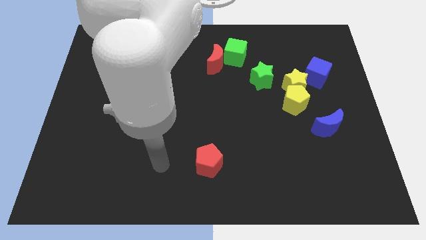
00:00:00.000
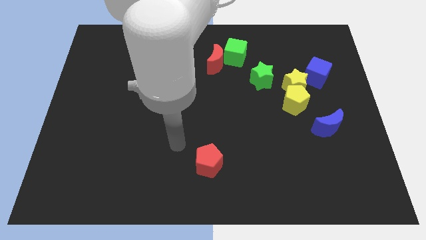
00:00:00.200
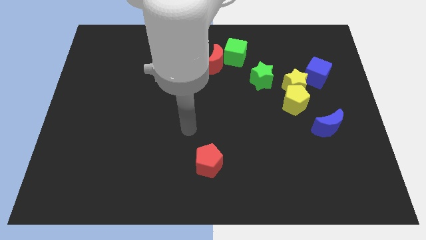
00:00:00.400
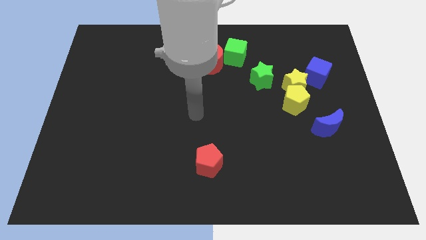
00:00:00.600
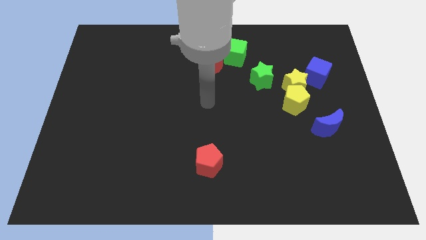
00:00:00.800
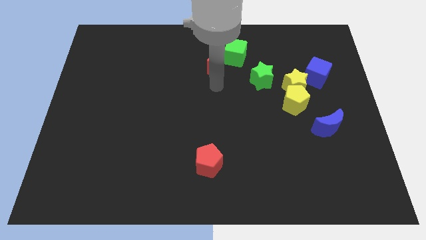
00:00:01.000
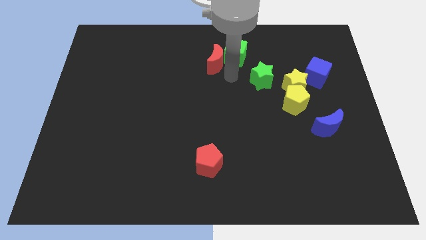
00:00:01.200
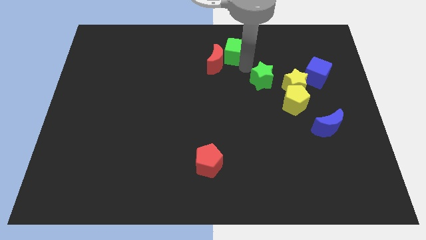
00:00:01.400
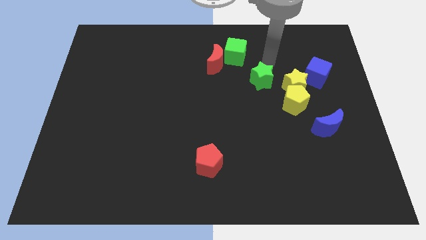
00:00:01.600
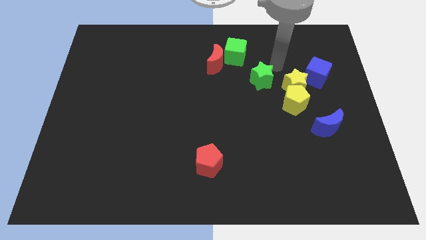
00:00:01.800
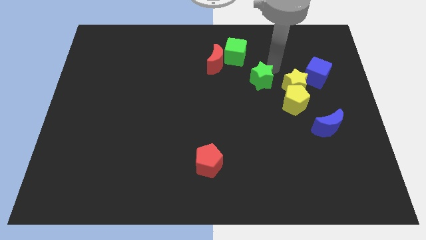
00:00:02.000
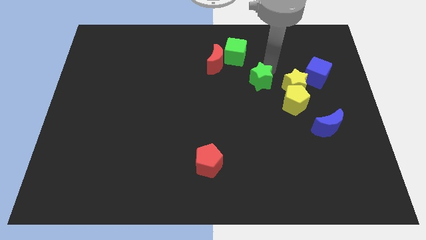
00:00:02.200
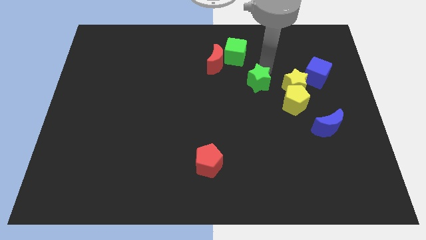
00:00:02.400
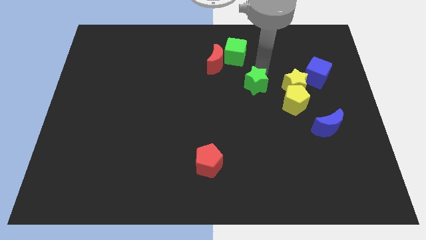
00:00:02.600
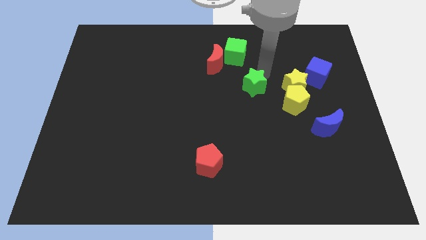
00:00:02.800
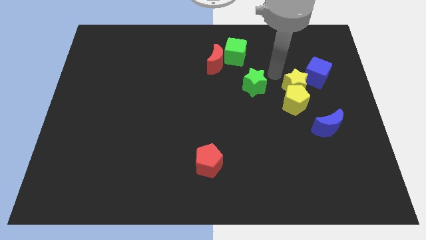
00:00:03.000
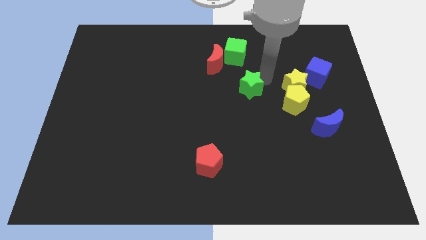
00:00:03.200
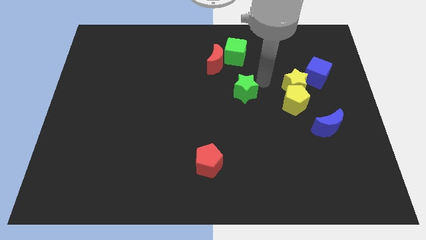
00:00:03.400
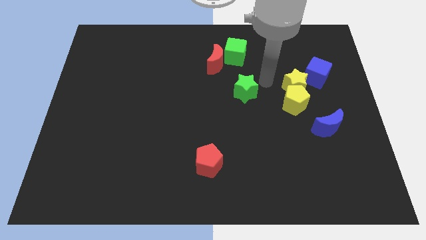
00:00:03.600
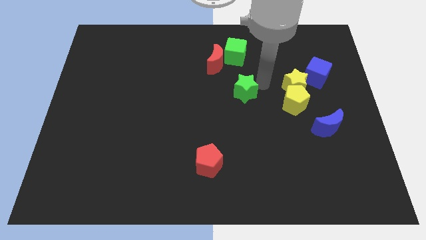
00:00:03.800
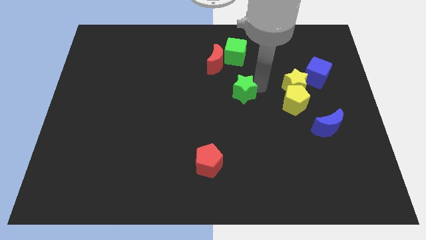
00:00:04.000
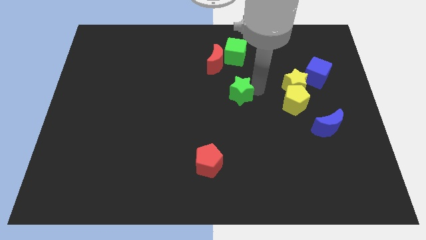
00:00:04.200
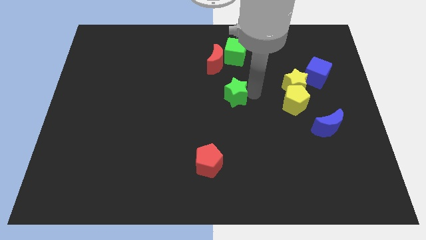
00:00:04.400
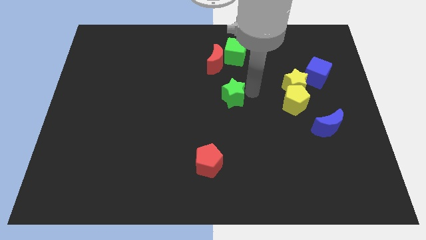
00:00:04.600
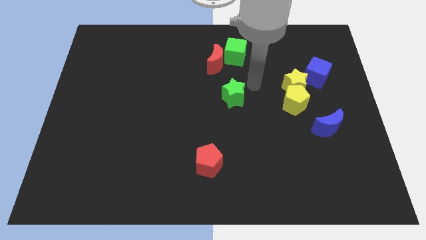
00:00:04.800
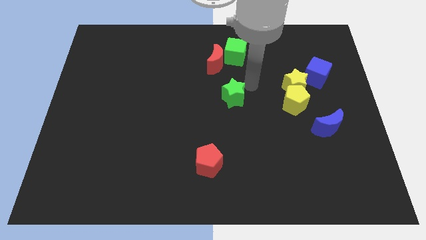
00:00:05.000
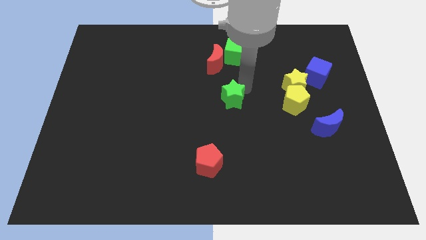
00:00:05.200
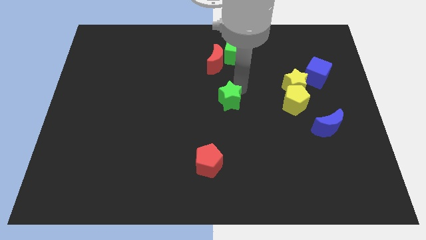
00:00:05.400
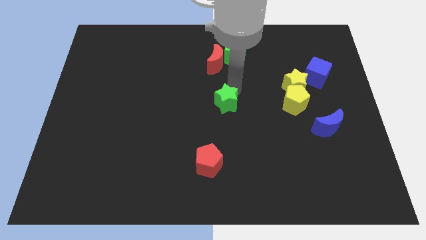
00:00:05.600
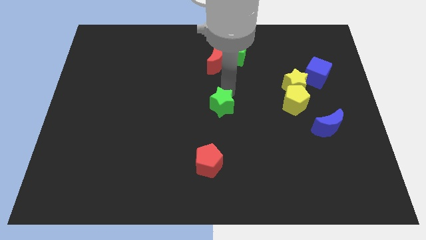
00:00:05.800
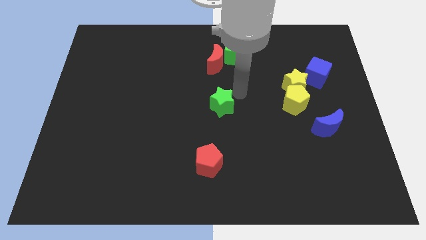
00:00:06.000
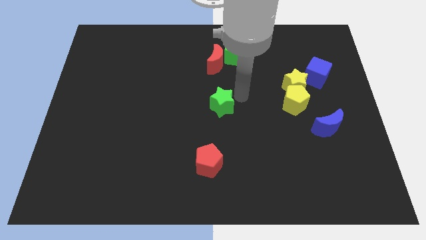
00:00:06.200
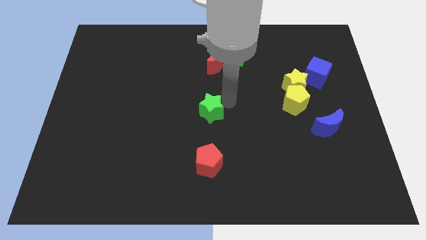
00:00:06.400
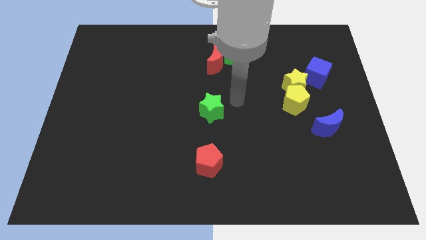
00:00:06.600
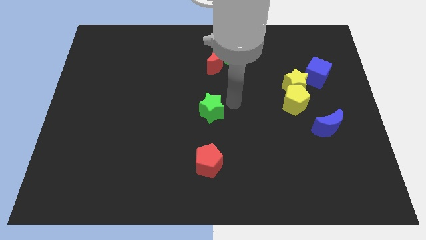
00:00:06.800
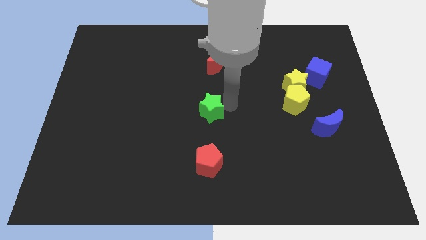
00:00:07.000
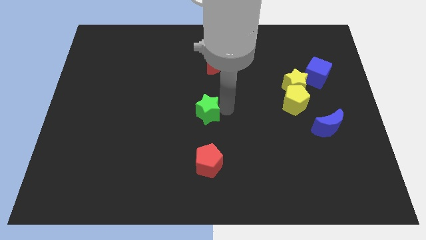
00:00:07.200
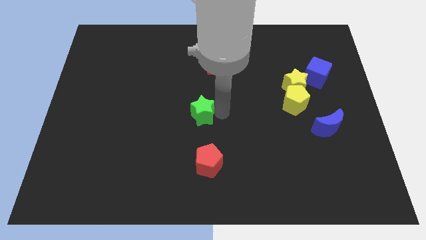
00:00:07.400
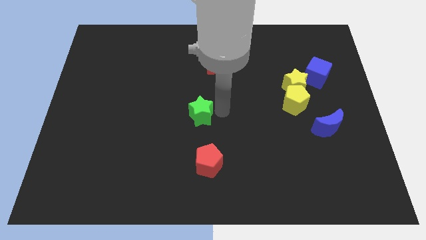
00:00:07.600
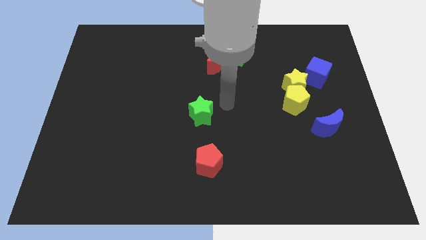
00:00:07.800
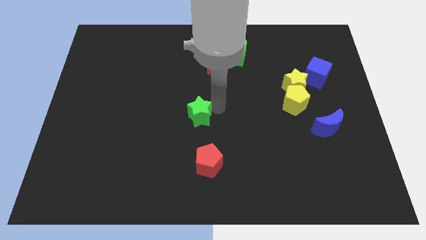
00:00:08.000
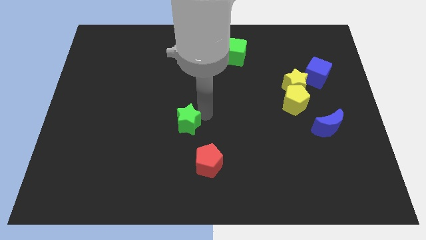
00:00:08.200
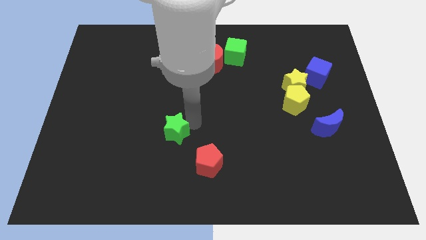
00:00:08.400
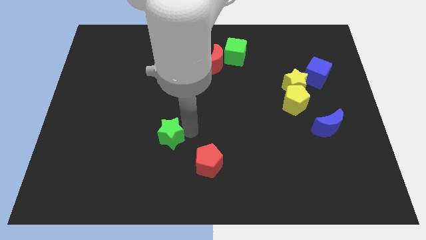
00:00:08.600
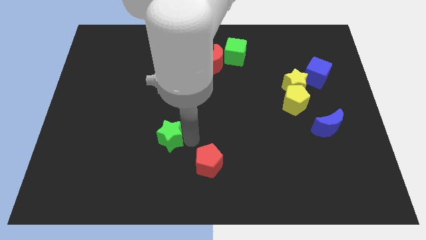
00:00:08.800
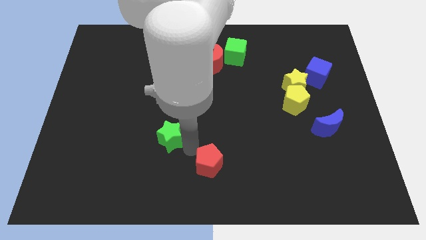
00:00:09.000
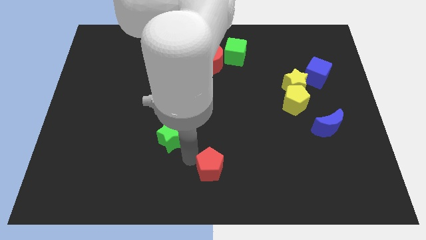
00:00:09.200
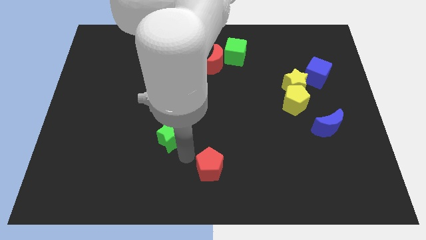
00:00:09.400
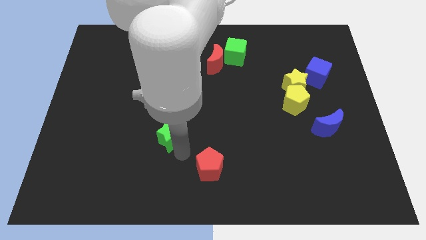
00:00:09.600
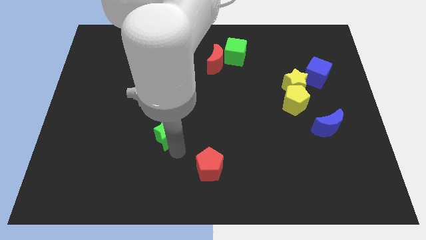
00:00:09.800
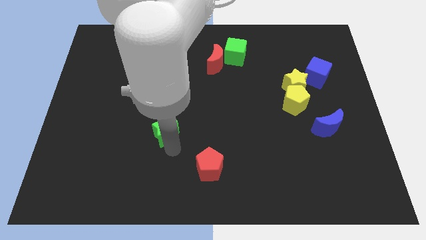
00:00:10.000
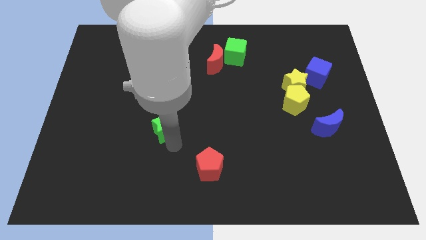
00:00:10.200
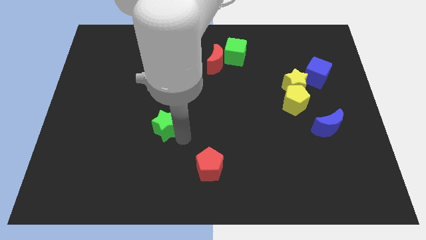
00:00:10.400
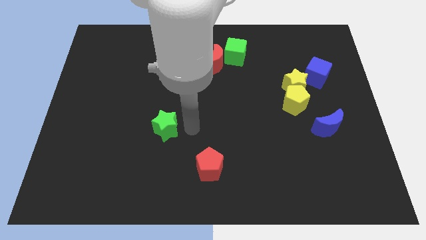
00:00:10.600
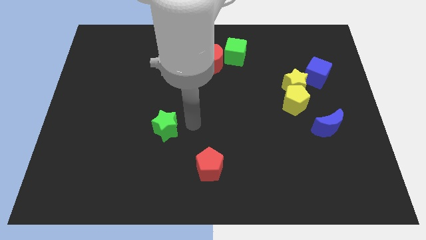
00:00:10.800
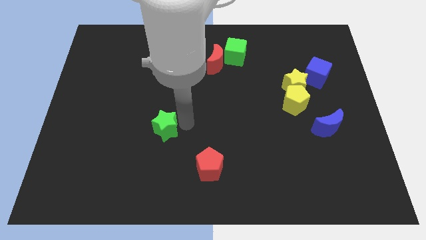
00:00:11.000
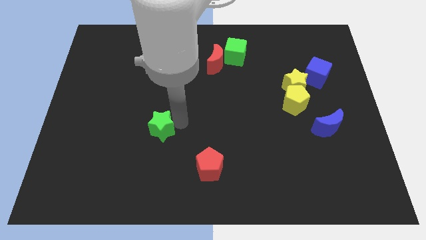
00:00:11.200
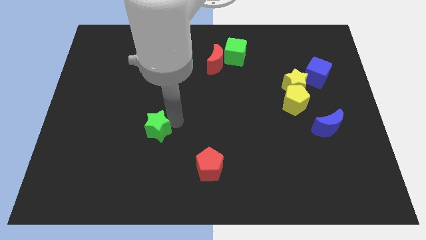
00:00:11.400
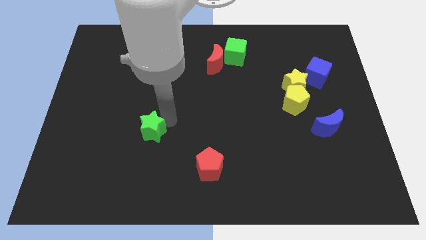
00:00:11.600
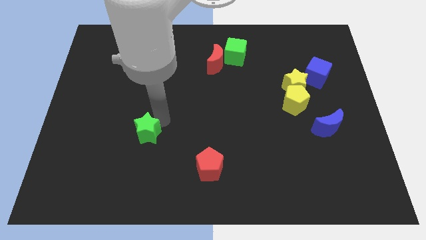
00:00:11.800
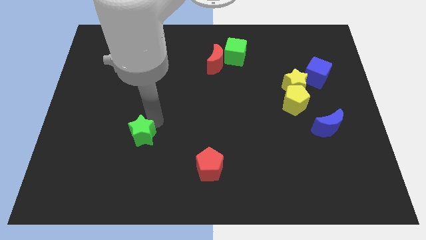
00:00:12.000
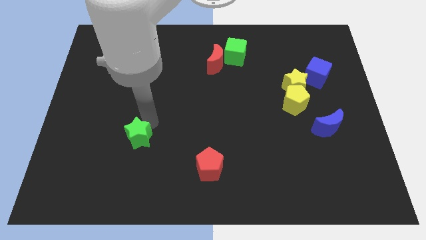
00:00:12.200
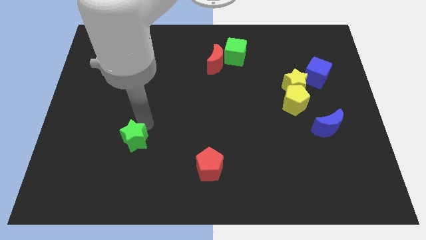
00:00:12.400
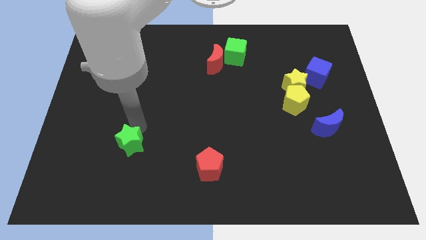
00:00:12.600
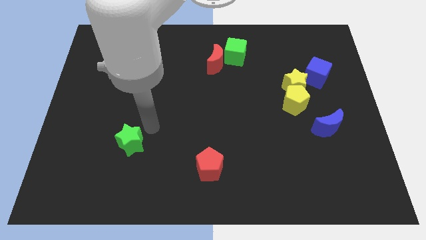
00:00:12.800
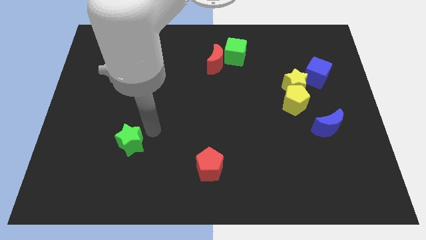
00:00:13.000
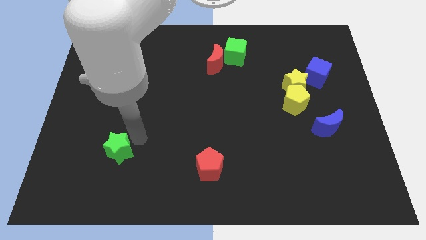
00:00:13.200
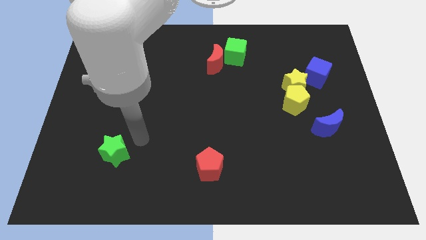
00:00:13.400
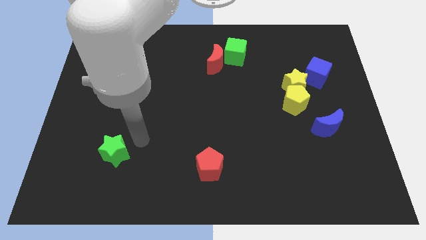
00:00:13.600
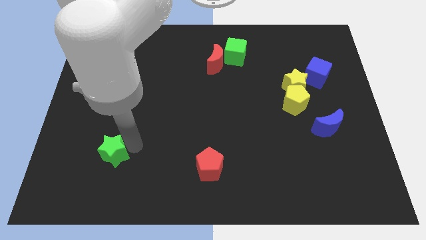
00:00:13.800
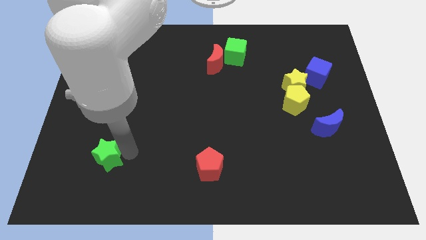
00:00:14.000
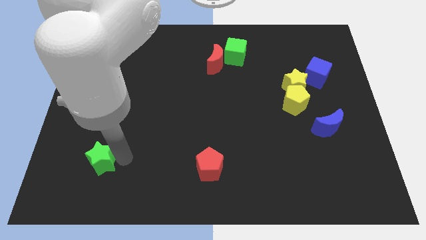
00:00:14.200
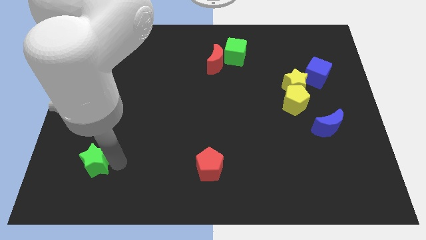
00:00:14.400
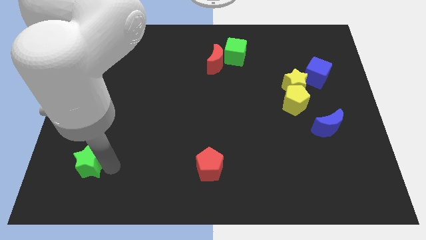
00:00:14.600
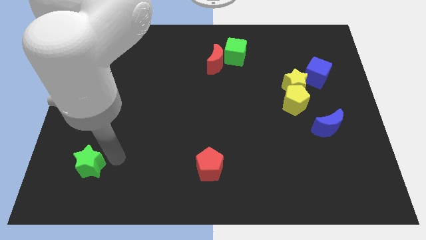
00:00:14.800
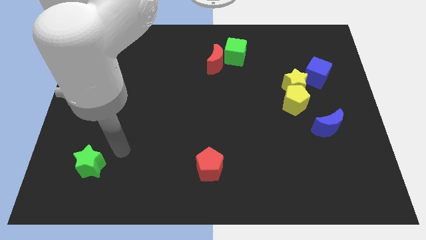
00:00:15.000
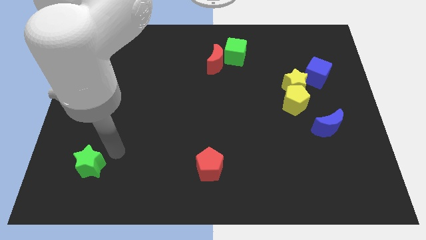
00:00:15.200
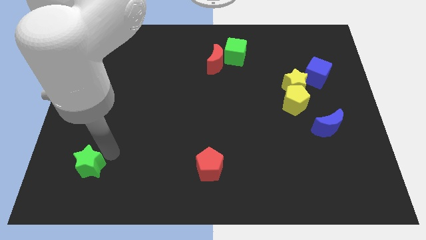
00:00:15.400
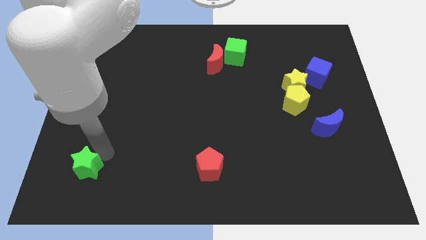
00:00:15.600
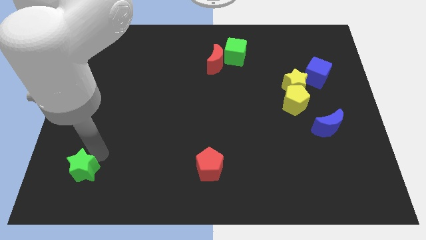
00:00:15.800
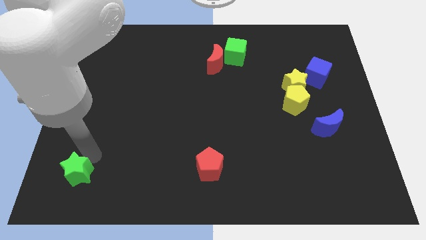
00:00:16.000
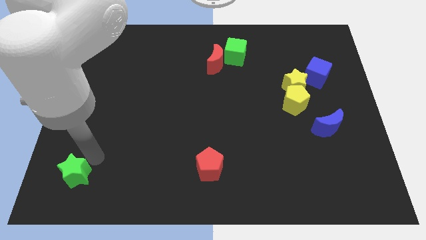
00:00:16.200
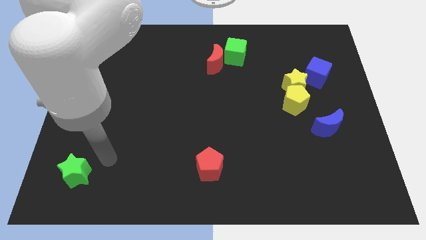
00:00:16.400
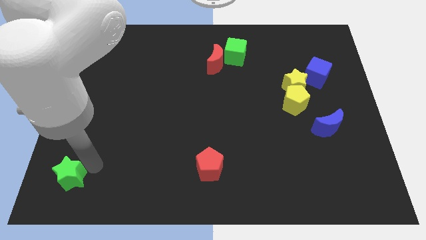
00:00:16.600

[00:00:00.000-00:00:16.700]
move the green star to the lower left corner
